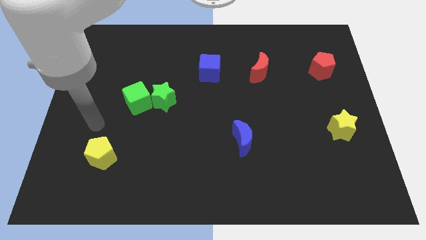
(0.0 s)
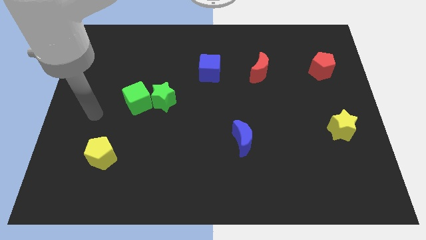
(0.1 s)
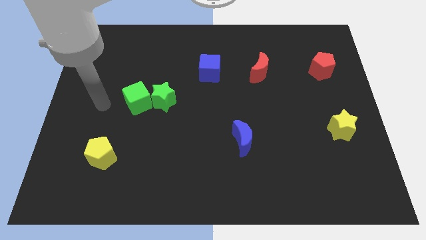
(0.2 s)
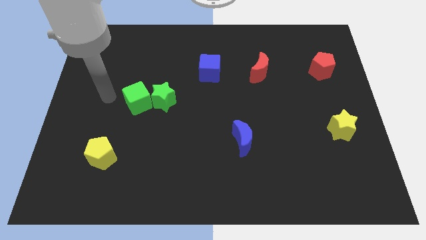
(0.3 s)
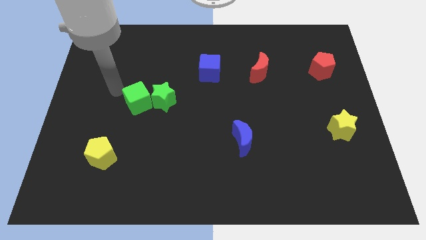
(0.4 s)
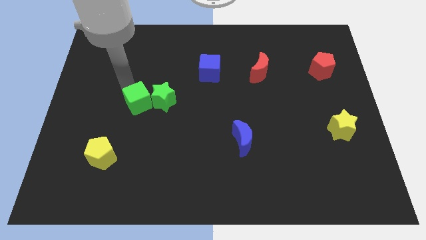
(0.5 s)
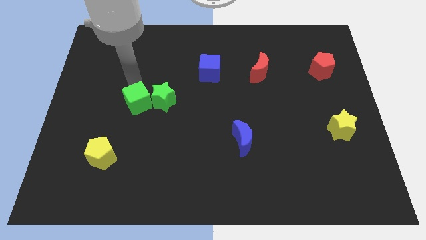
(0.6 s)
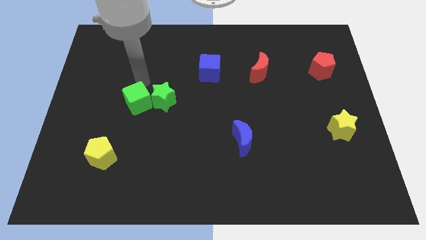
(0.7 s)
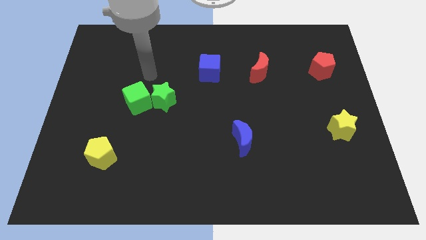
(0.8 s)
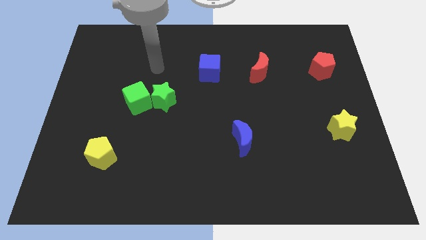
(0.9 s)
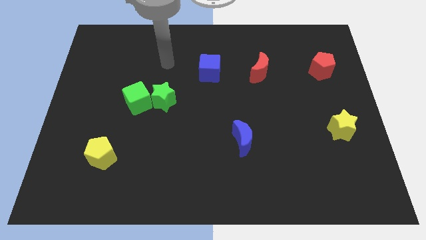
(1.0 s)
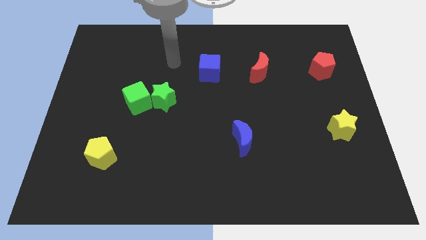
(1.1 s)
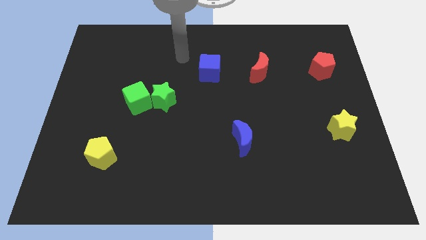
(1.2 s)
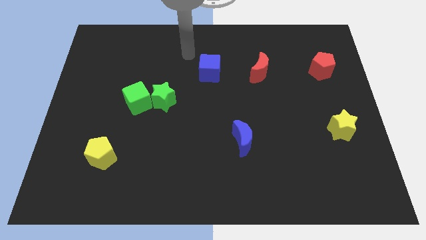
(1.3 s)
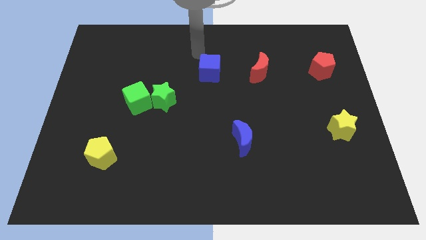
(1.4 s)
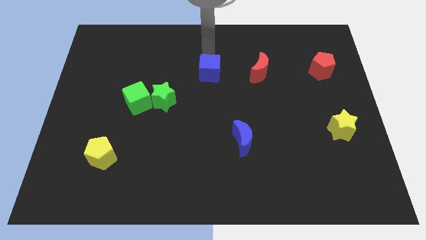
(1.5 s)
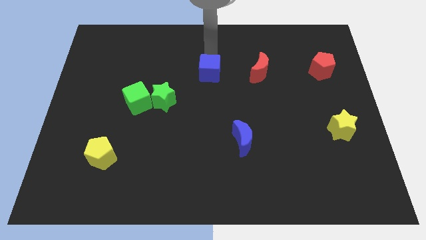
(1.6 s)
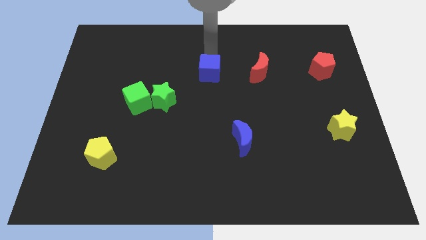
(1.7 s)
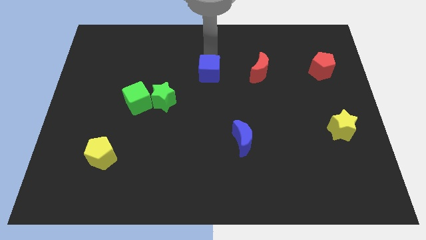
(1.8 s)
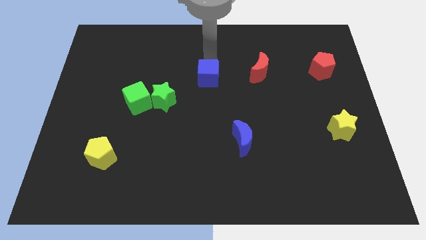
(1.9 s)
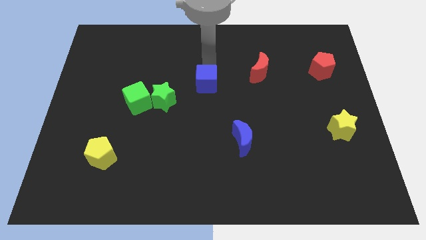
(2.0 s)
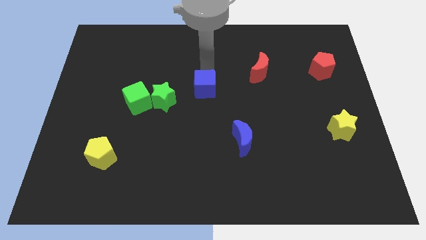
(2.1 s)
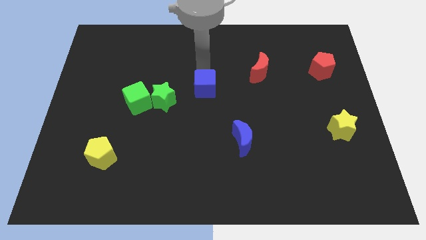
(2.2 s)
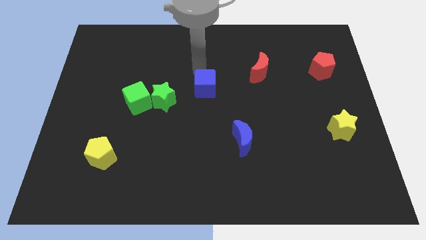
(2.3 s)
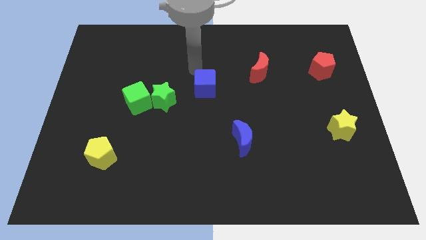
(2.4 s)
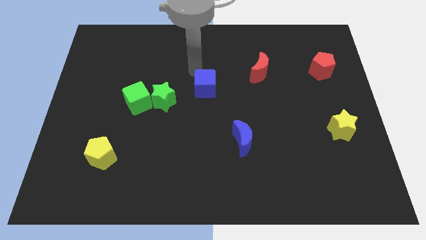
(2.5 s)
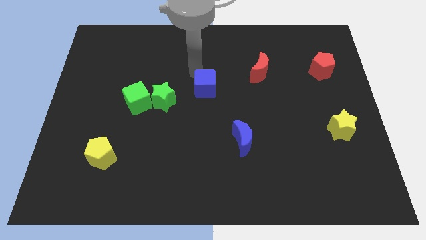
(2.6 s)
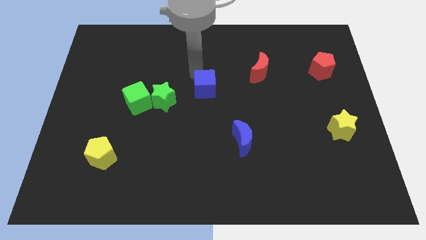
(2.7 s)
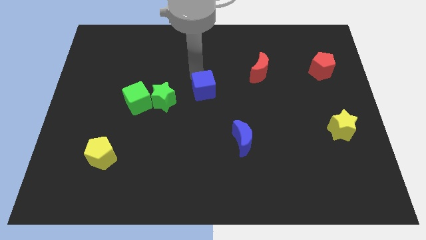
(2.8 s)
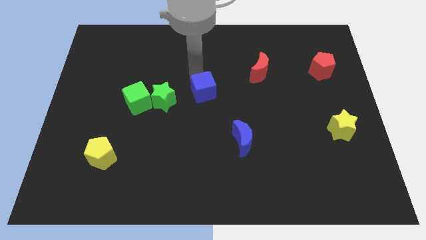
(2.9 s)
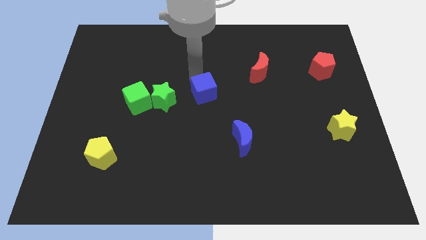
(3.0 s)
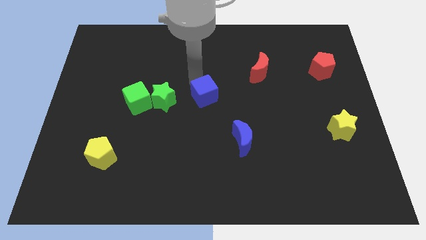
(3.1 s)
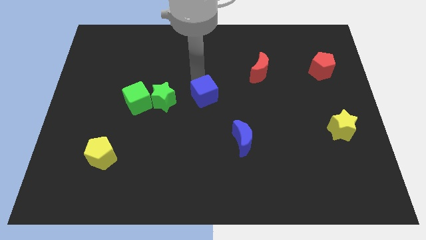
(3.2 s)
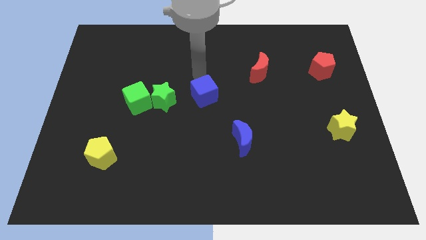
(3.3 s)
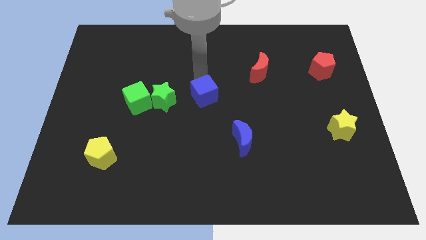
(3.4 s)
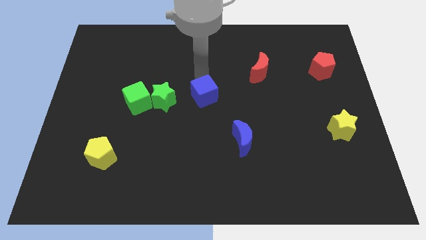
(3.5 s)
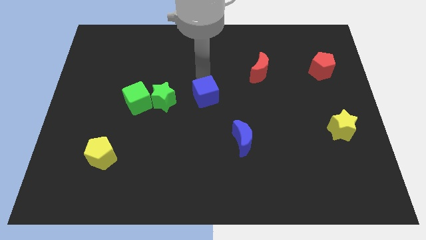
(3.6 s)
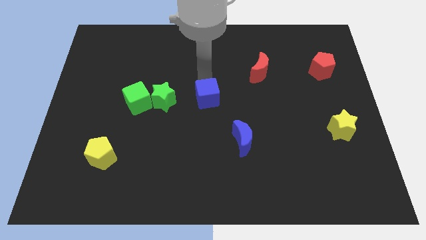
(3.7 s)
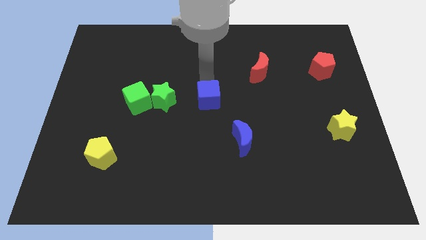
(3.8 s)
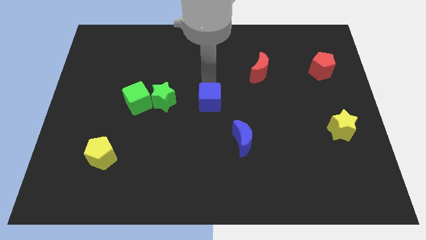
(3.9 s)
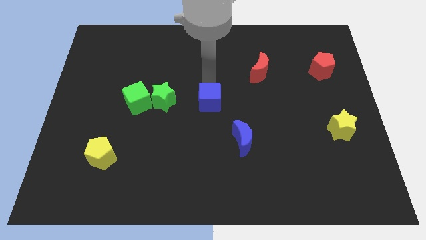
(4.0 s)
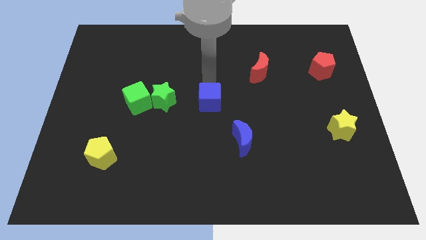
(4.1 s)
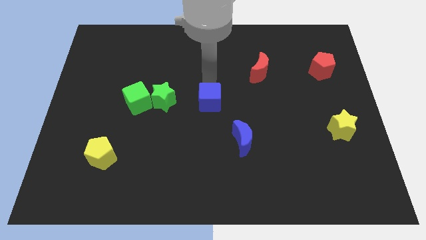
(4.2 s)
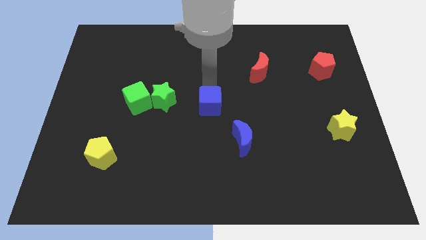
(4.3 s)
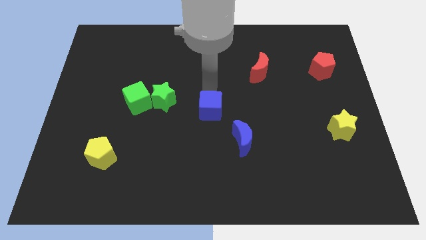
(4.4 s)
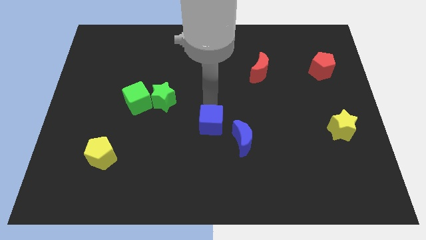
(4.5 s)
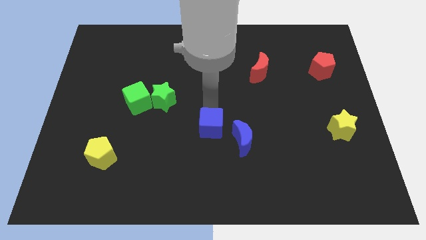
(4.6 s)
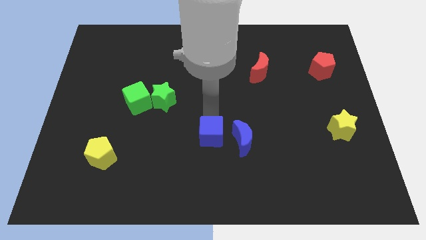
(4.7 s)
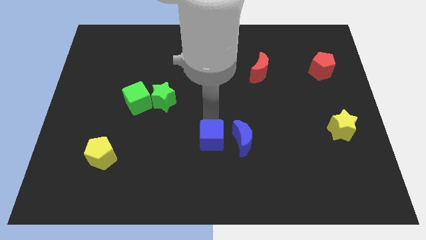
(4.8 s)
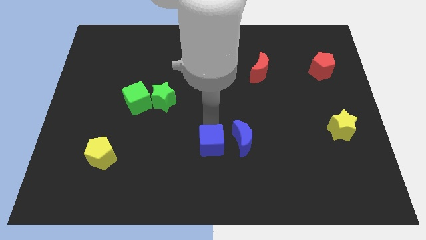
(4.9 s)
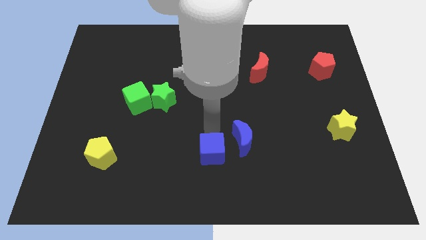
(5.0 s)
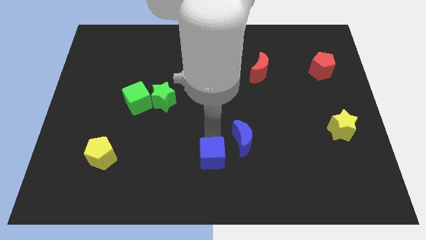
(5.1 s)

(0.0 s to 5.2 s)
push the blue cube to the bottom side
